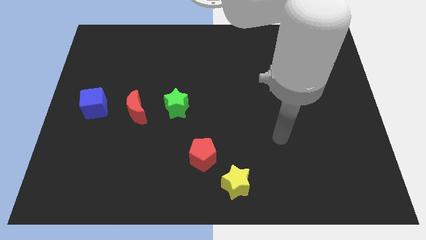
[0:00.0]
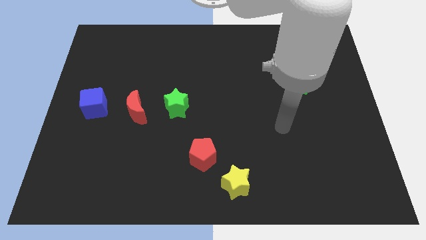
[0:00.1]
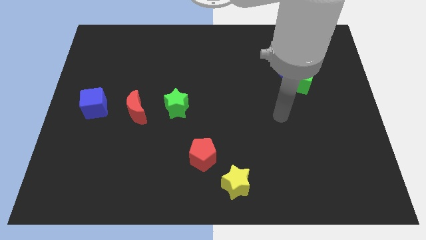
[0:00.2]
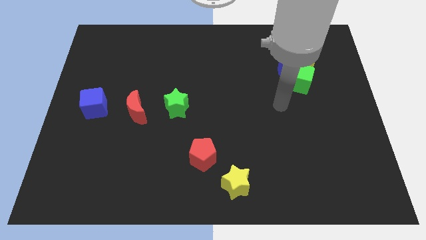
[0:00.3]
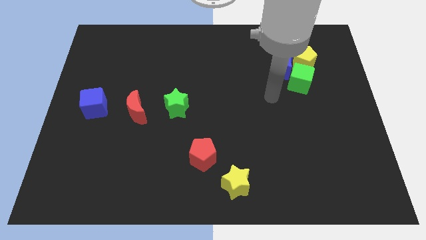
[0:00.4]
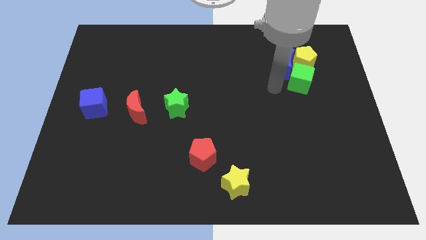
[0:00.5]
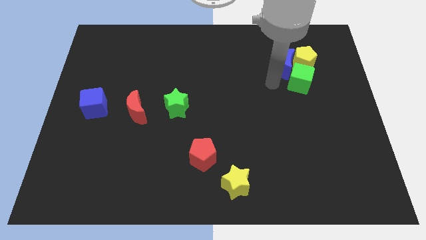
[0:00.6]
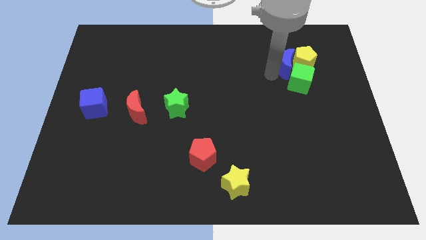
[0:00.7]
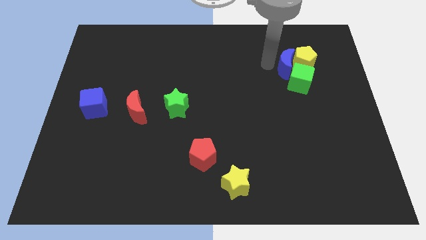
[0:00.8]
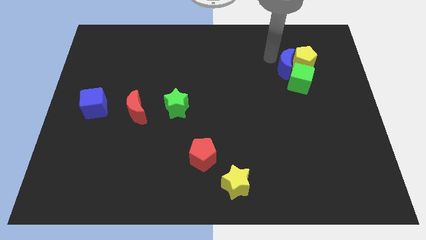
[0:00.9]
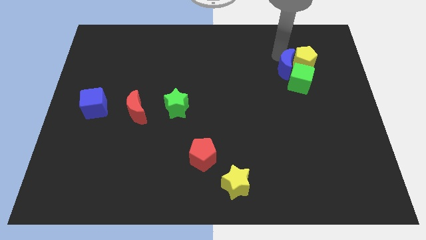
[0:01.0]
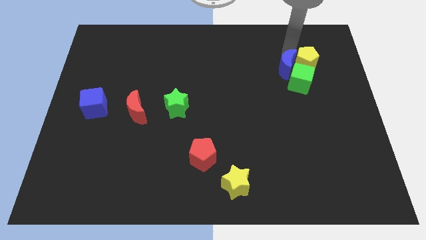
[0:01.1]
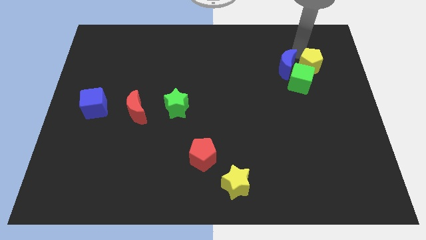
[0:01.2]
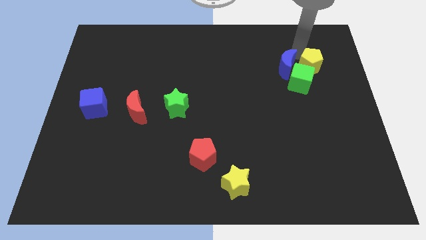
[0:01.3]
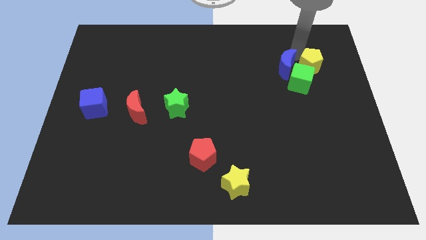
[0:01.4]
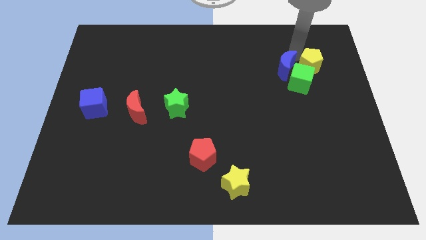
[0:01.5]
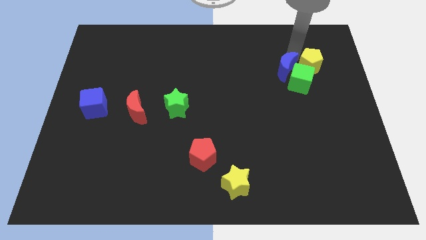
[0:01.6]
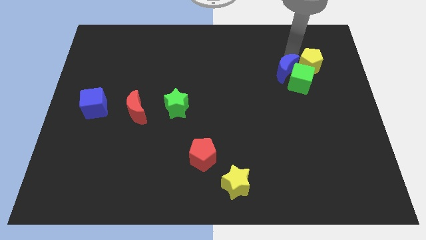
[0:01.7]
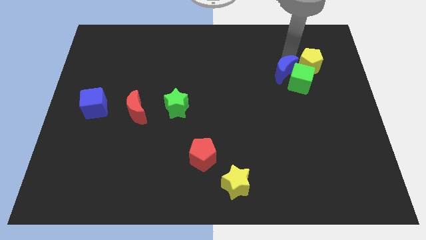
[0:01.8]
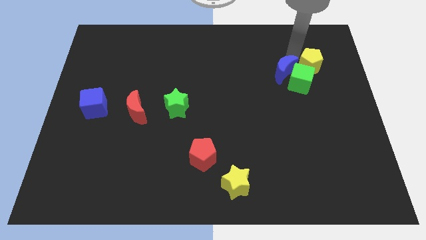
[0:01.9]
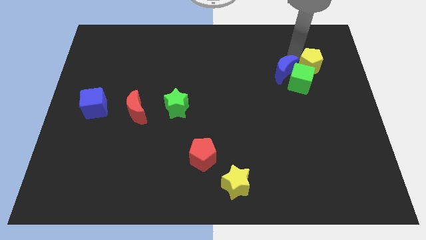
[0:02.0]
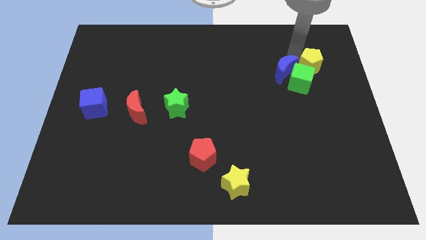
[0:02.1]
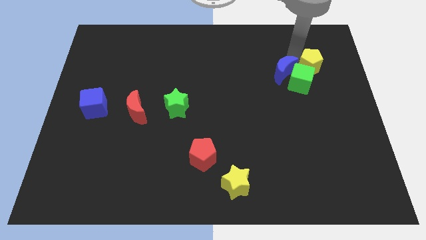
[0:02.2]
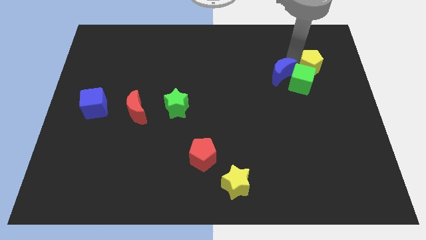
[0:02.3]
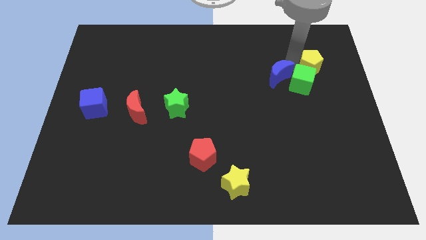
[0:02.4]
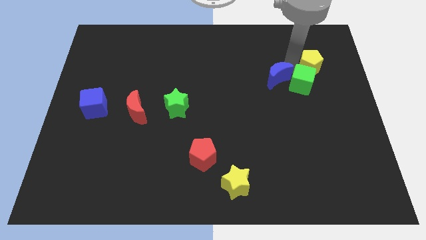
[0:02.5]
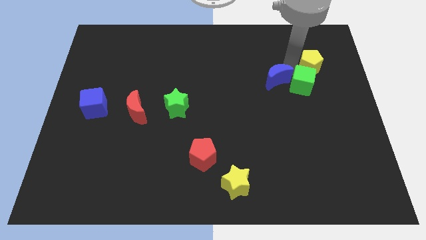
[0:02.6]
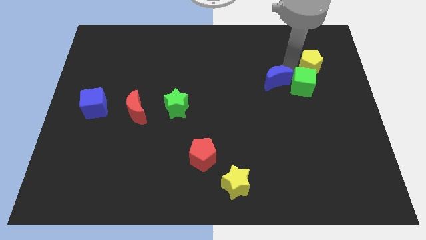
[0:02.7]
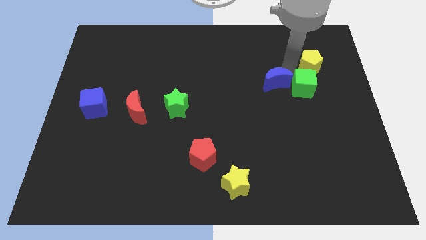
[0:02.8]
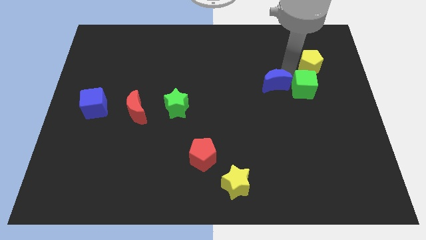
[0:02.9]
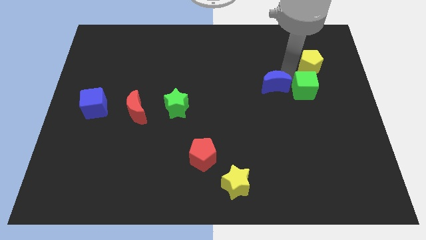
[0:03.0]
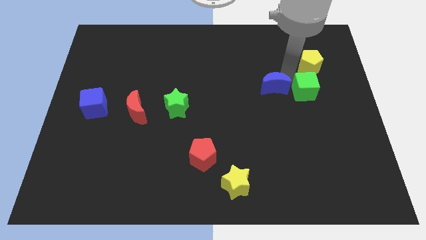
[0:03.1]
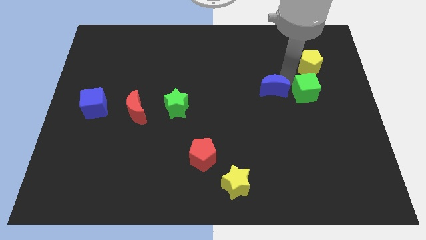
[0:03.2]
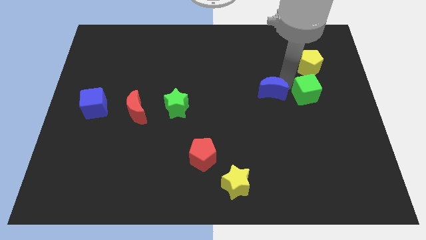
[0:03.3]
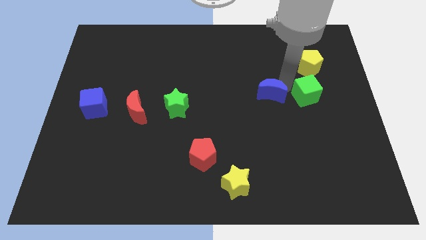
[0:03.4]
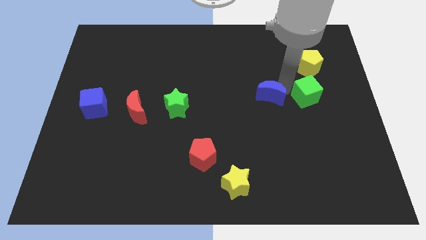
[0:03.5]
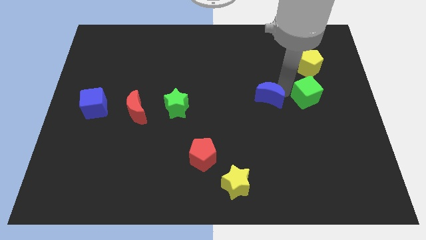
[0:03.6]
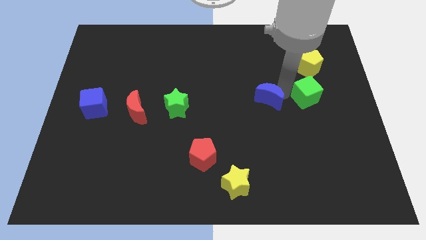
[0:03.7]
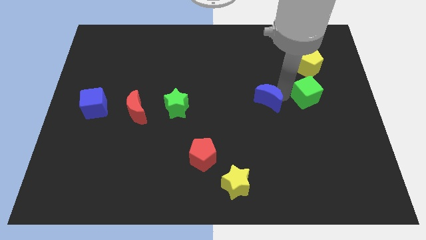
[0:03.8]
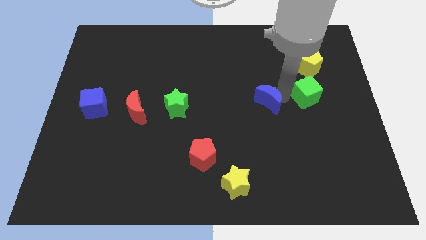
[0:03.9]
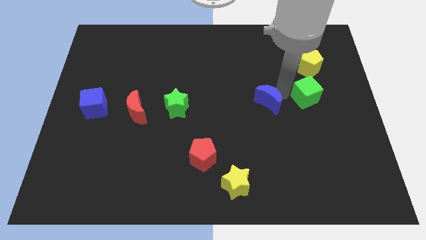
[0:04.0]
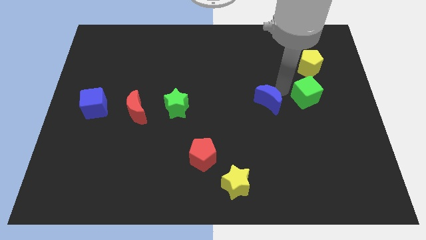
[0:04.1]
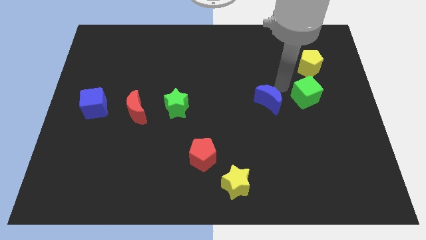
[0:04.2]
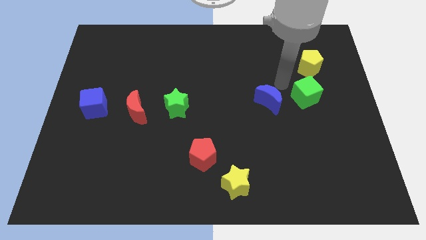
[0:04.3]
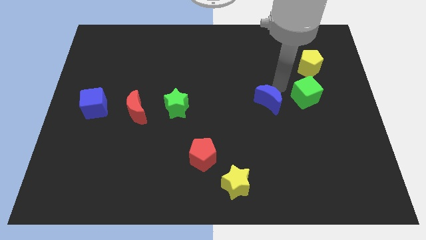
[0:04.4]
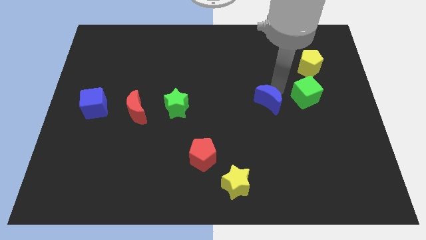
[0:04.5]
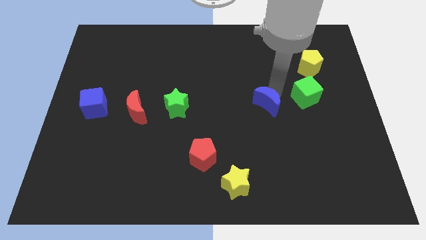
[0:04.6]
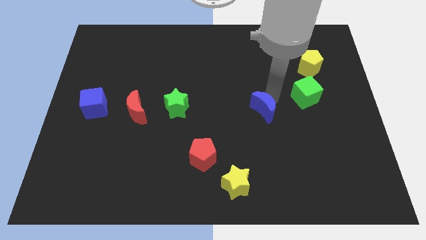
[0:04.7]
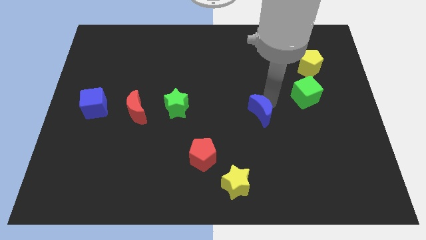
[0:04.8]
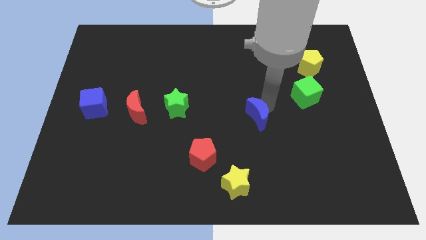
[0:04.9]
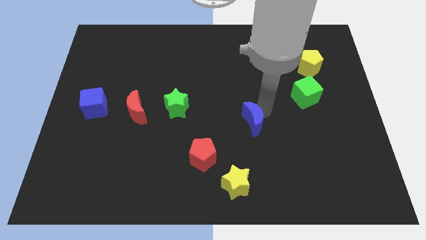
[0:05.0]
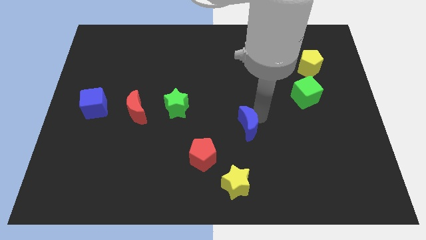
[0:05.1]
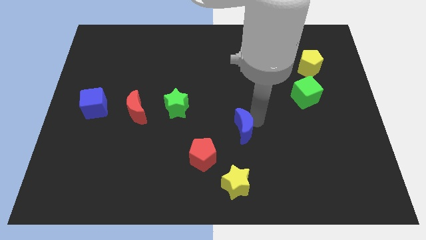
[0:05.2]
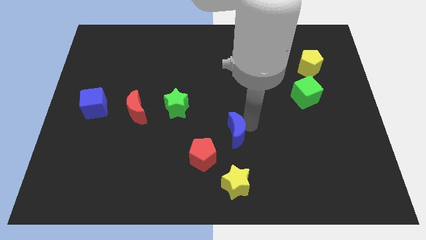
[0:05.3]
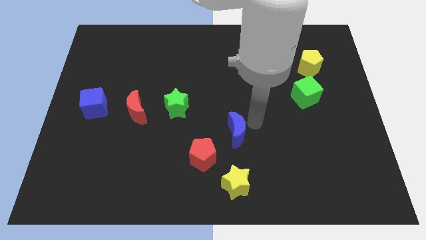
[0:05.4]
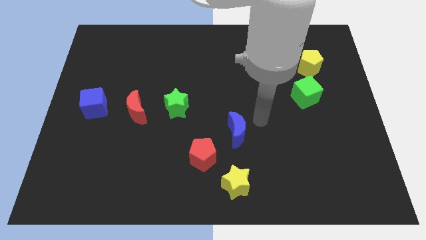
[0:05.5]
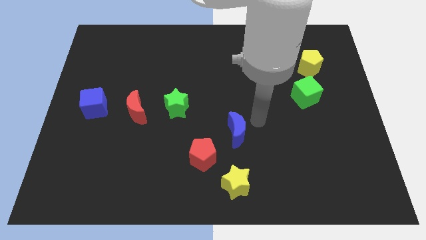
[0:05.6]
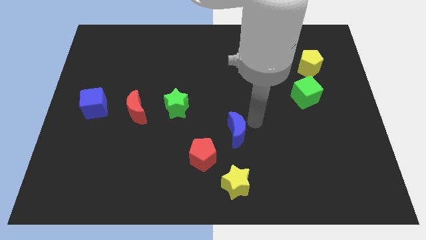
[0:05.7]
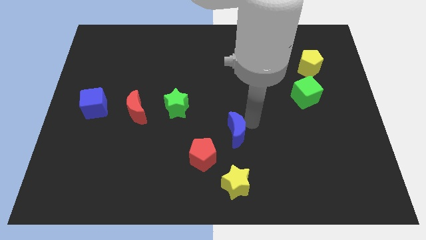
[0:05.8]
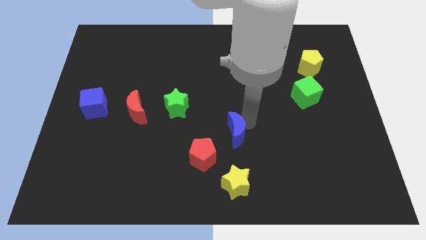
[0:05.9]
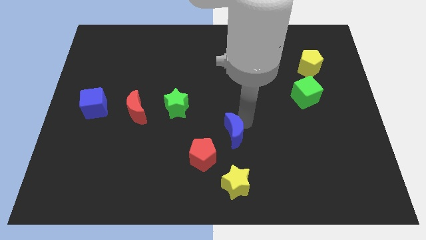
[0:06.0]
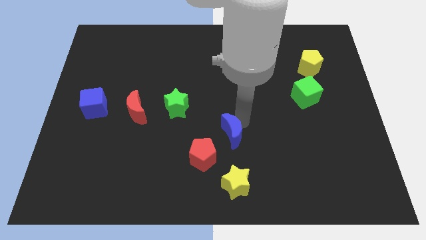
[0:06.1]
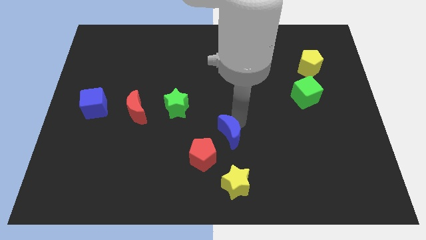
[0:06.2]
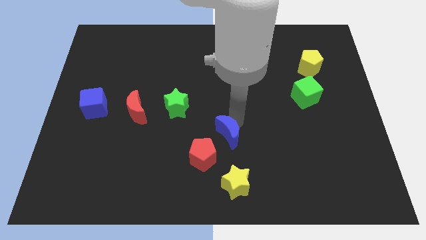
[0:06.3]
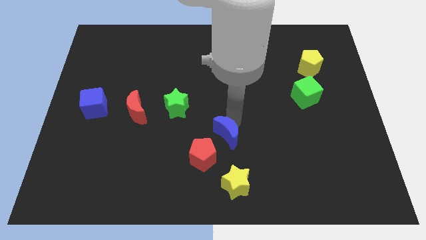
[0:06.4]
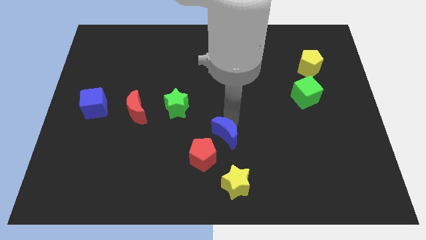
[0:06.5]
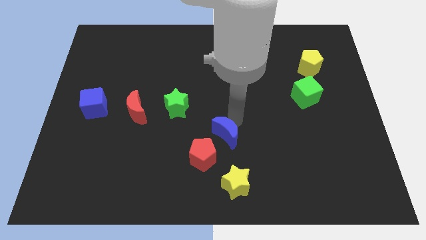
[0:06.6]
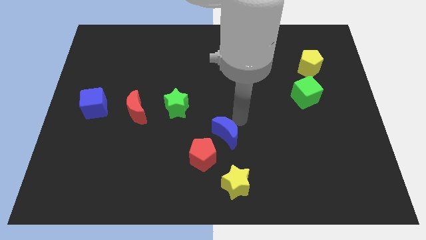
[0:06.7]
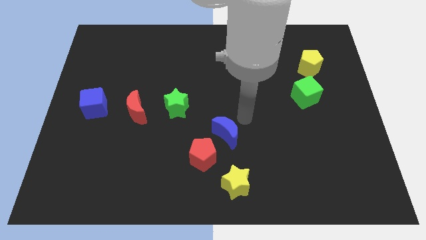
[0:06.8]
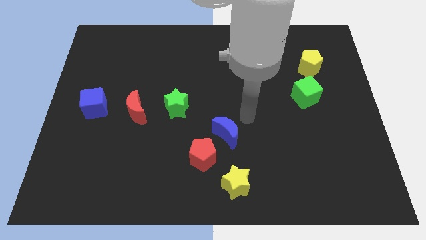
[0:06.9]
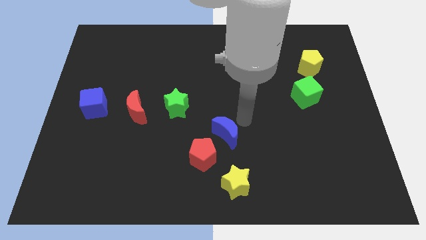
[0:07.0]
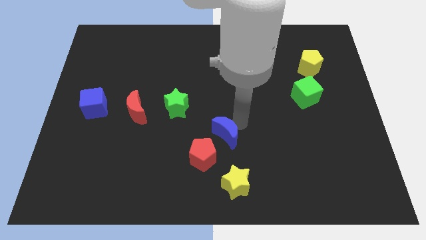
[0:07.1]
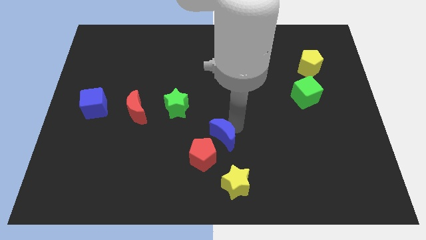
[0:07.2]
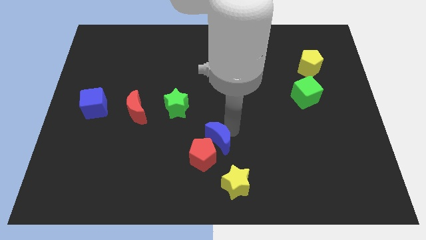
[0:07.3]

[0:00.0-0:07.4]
push the blue moon towards the red pentagon

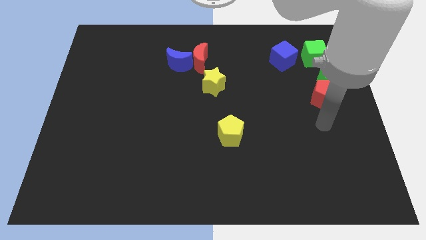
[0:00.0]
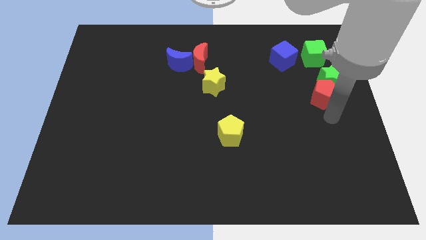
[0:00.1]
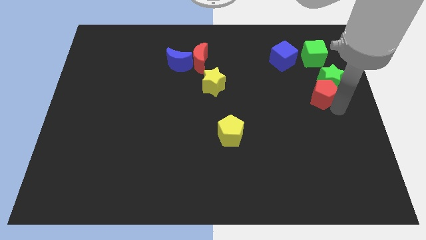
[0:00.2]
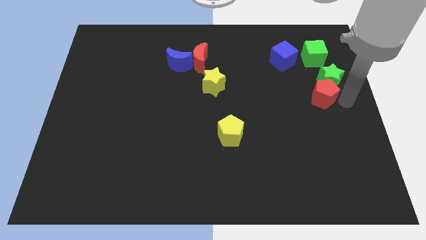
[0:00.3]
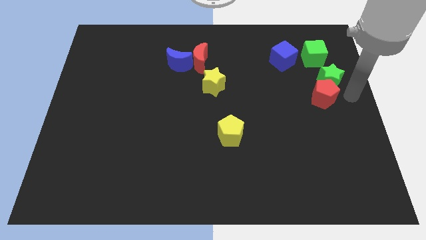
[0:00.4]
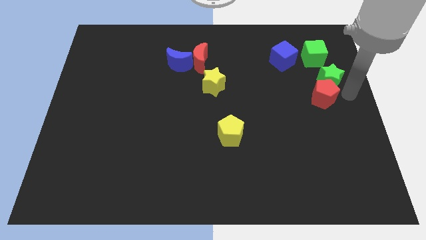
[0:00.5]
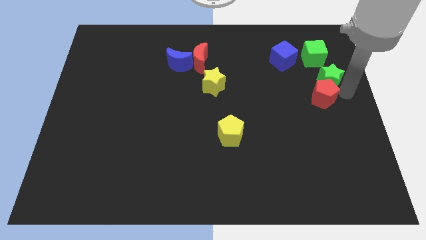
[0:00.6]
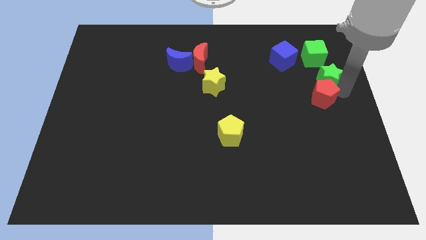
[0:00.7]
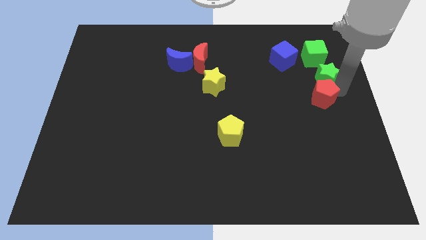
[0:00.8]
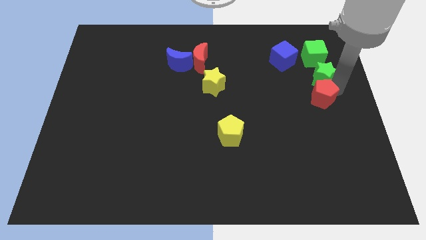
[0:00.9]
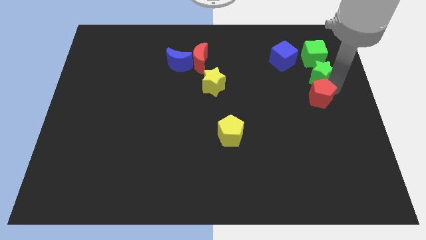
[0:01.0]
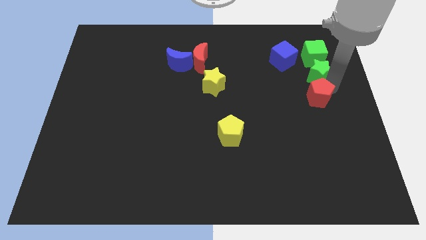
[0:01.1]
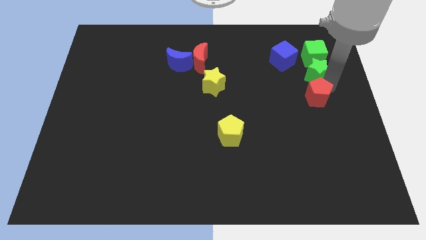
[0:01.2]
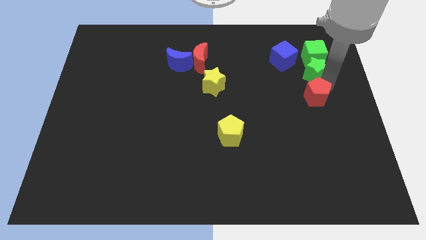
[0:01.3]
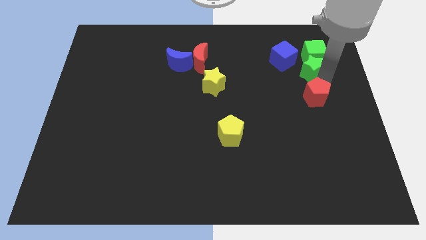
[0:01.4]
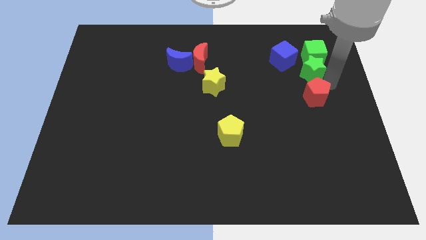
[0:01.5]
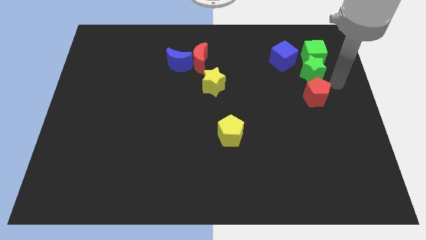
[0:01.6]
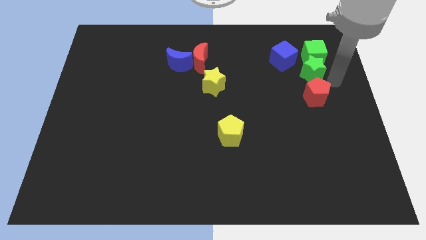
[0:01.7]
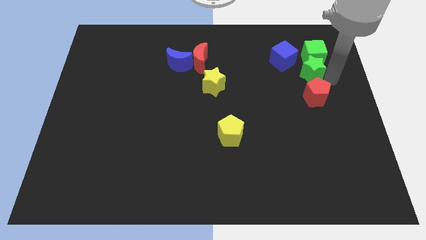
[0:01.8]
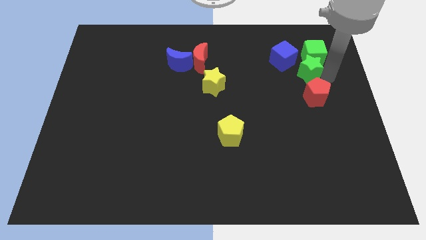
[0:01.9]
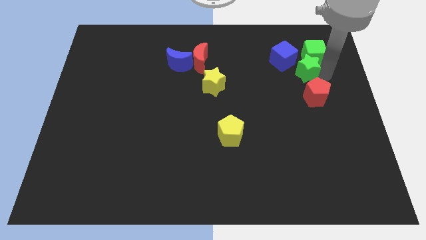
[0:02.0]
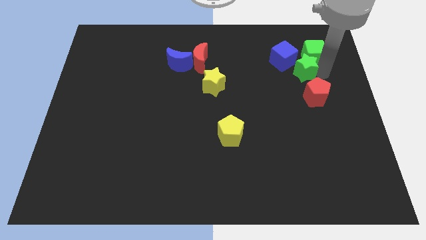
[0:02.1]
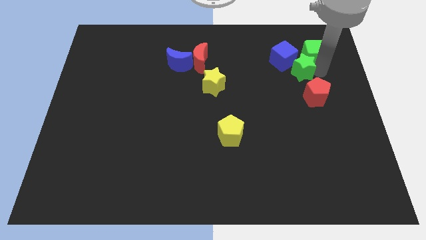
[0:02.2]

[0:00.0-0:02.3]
move the green star to the blue cube
